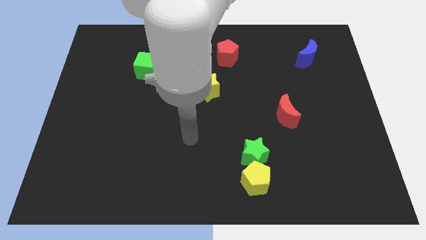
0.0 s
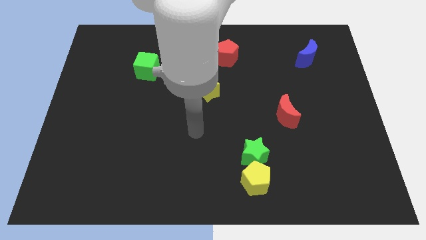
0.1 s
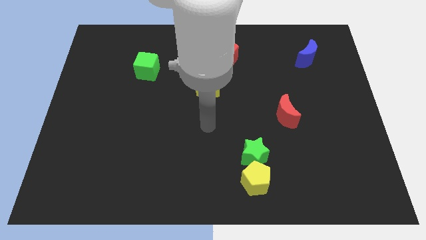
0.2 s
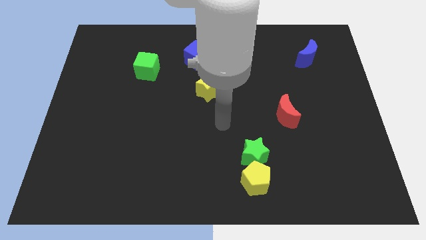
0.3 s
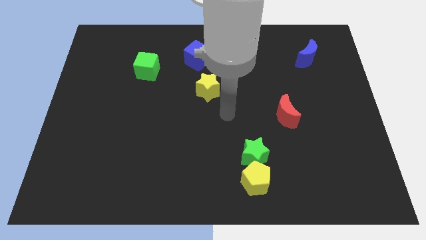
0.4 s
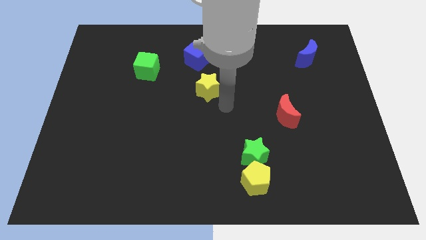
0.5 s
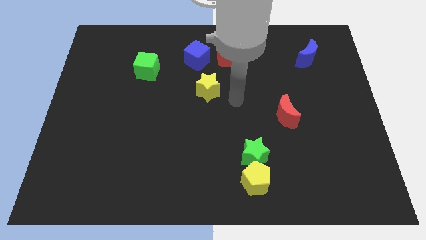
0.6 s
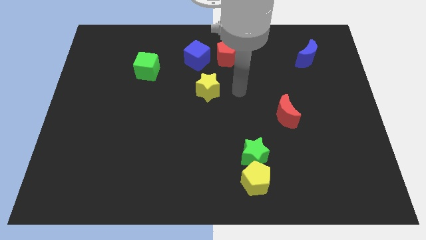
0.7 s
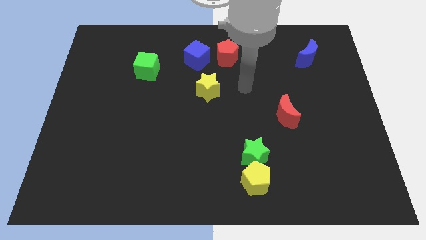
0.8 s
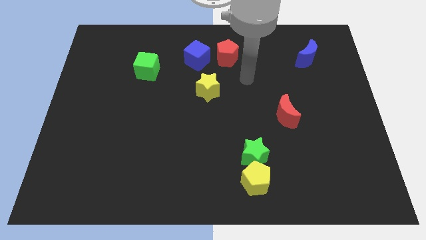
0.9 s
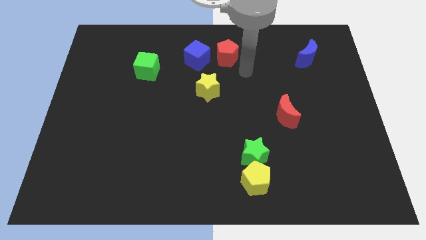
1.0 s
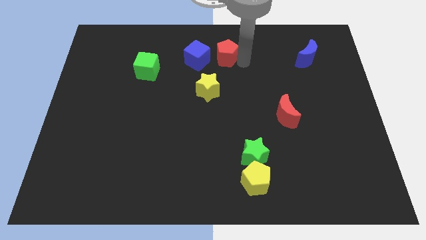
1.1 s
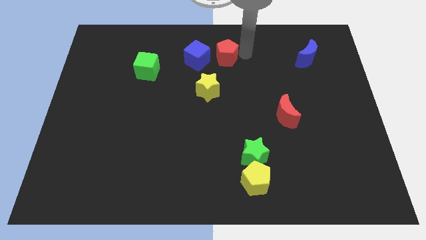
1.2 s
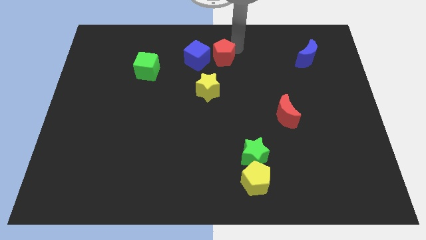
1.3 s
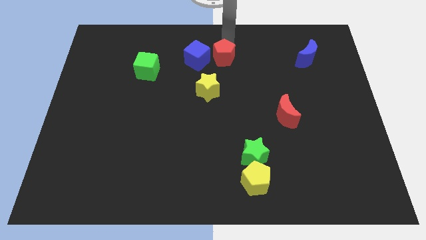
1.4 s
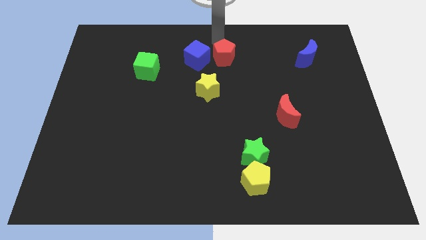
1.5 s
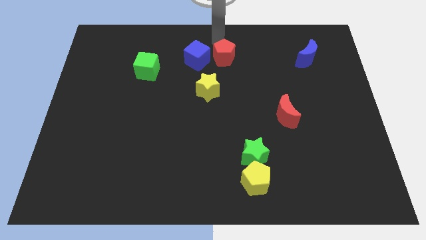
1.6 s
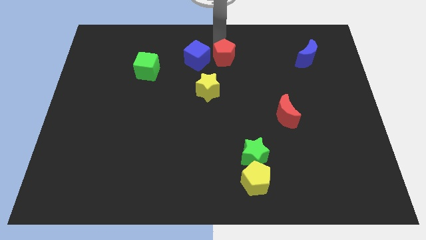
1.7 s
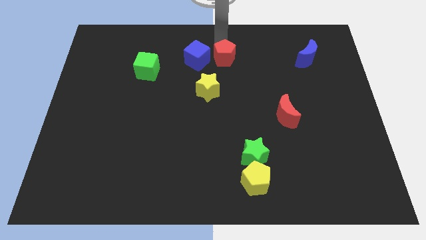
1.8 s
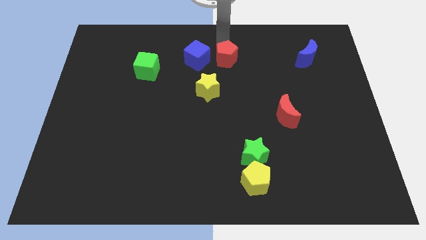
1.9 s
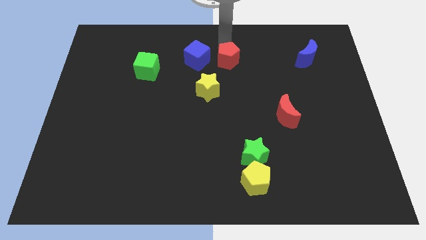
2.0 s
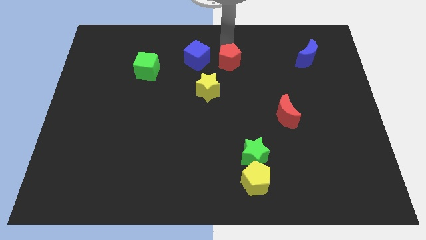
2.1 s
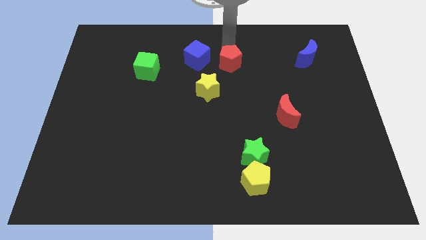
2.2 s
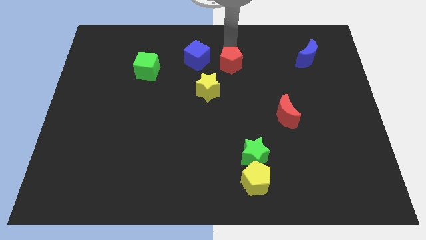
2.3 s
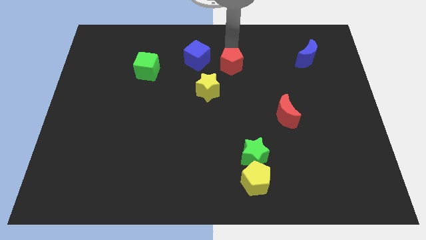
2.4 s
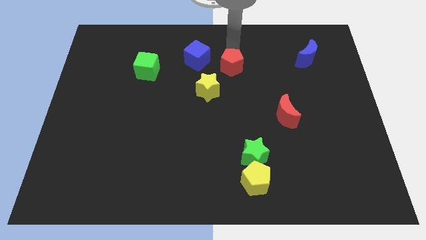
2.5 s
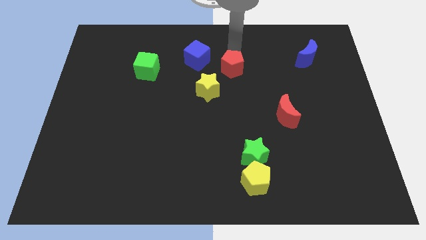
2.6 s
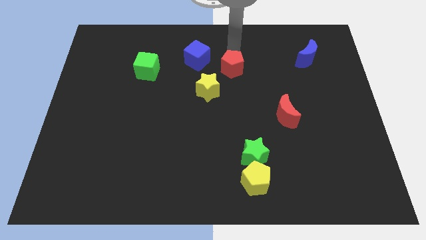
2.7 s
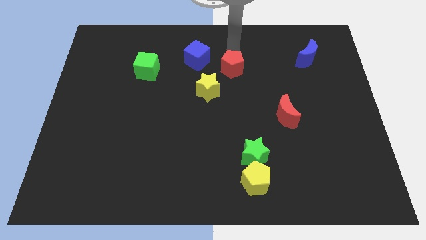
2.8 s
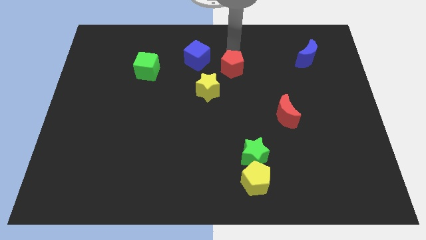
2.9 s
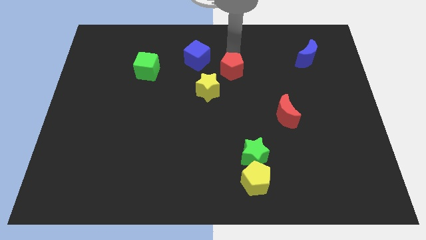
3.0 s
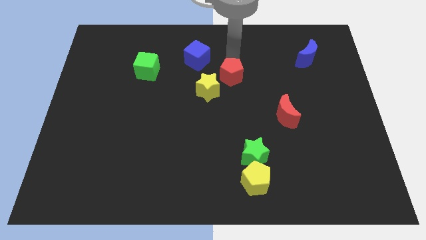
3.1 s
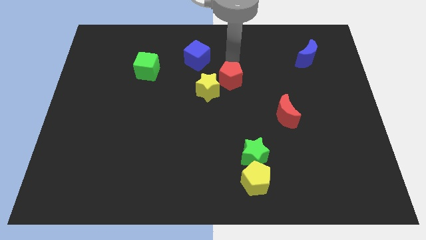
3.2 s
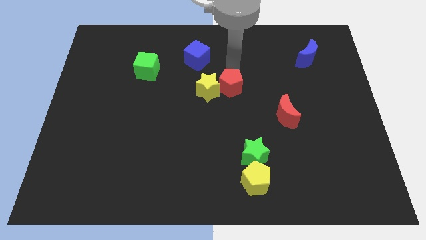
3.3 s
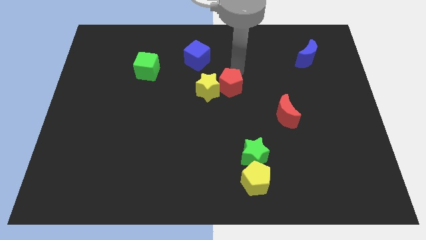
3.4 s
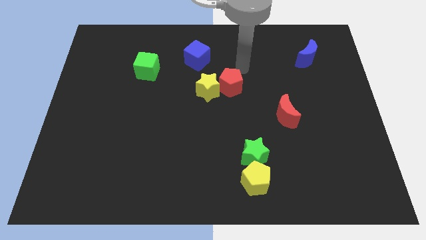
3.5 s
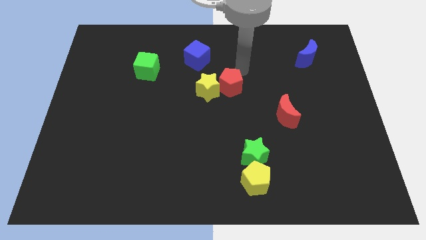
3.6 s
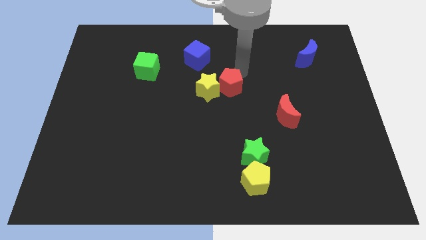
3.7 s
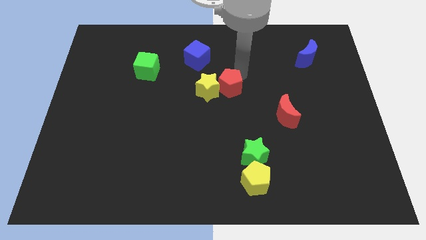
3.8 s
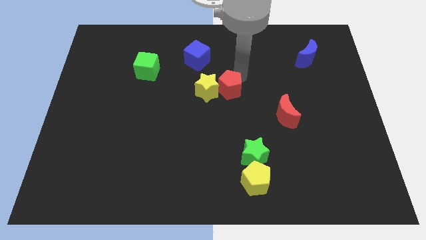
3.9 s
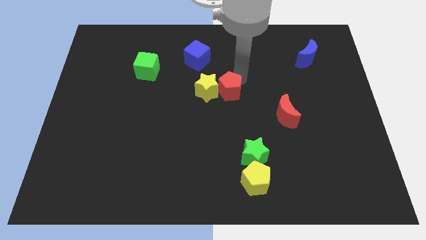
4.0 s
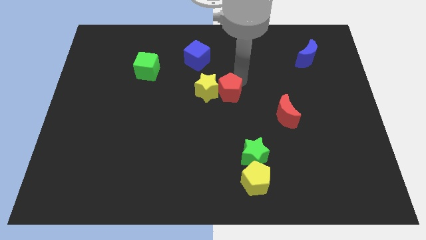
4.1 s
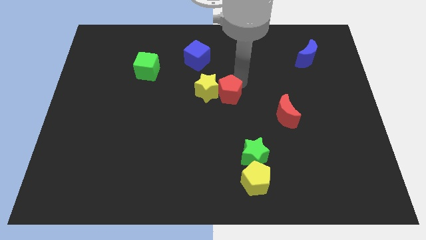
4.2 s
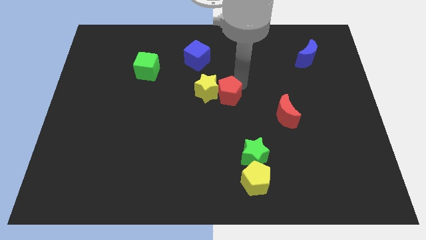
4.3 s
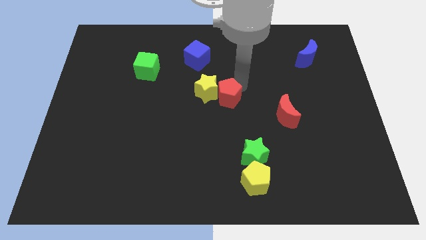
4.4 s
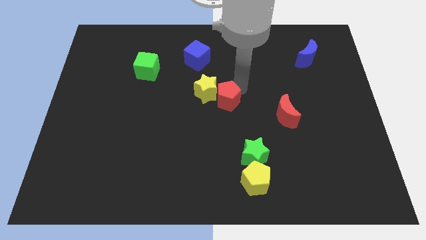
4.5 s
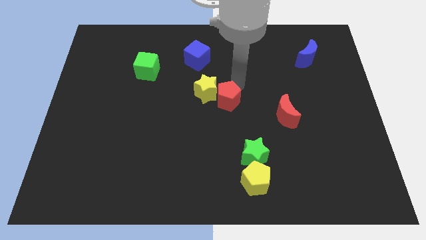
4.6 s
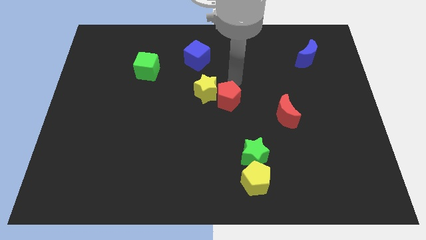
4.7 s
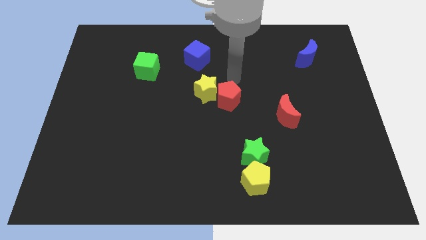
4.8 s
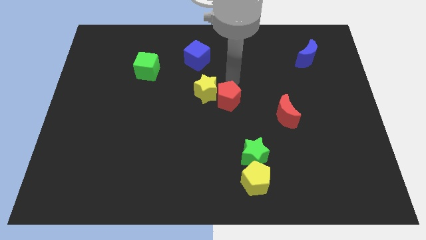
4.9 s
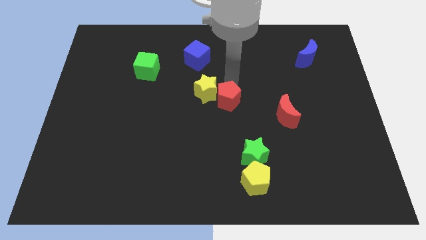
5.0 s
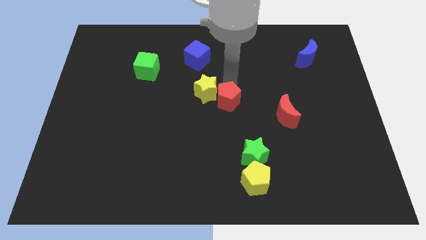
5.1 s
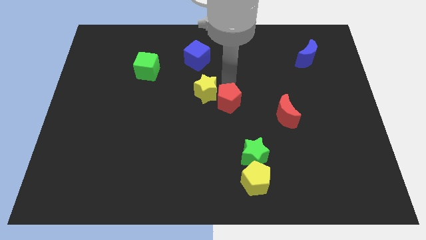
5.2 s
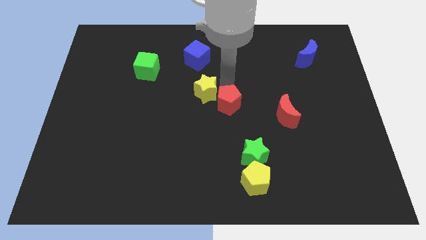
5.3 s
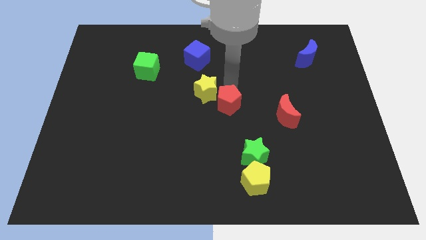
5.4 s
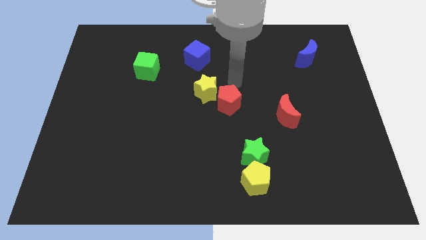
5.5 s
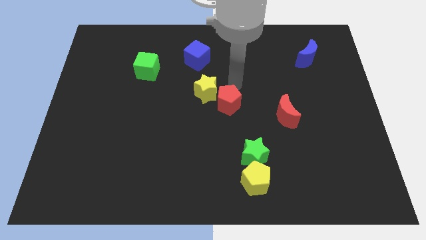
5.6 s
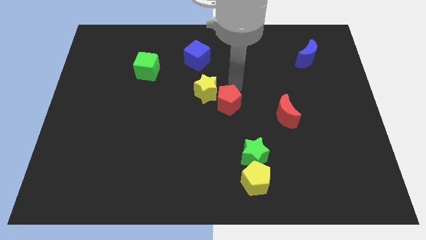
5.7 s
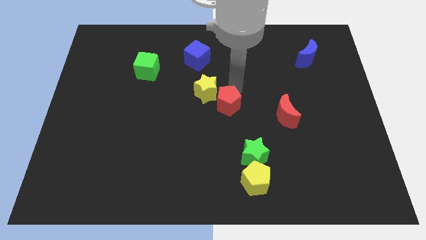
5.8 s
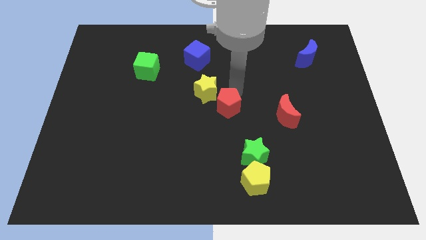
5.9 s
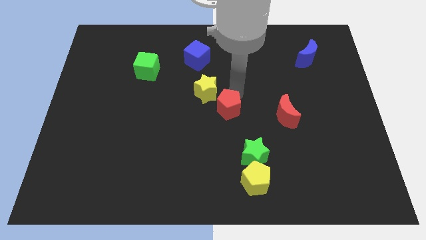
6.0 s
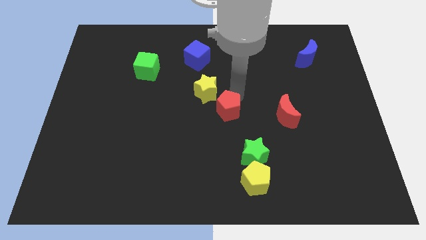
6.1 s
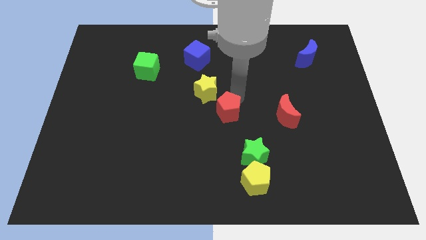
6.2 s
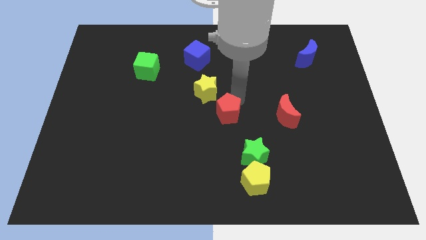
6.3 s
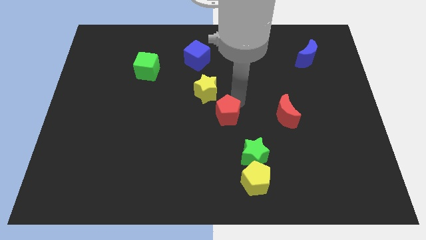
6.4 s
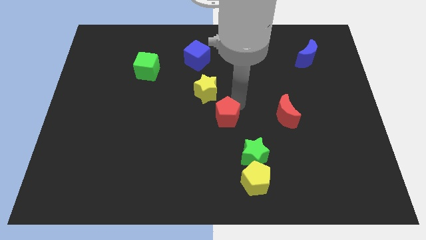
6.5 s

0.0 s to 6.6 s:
slide the red pentagon down

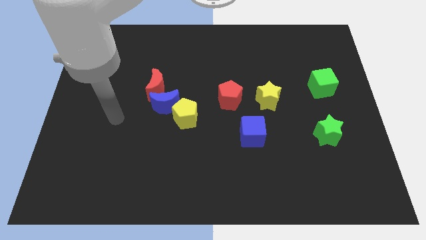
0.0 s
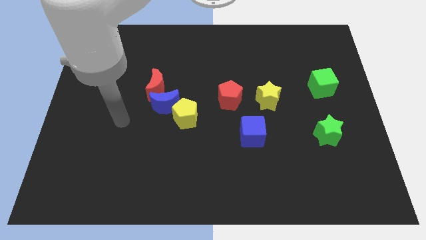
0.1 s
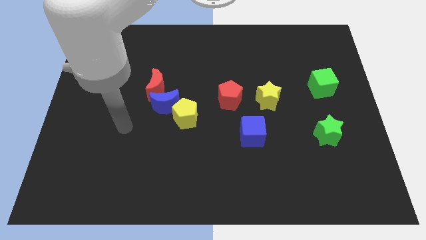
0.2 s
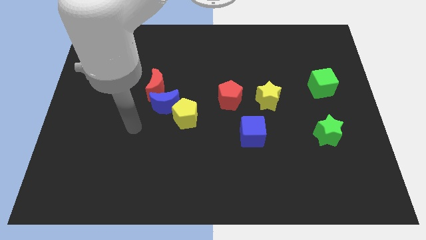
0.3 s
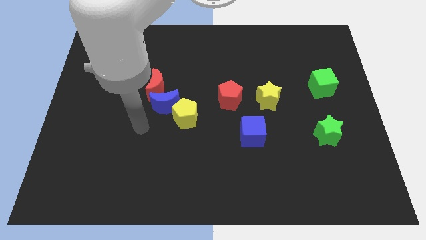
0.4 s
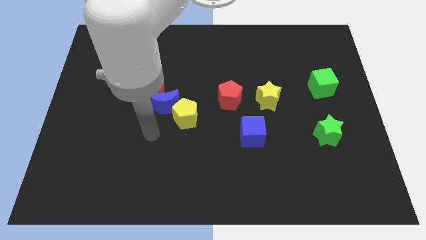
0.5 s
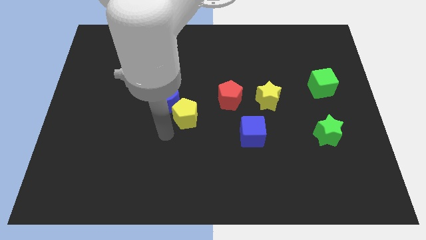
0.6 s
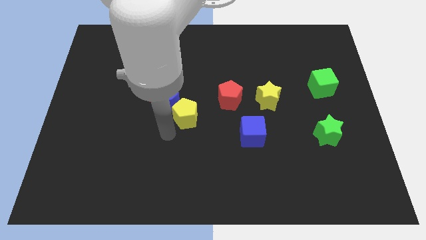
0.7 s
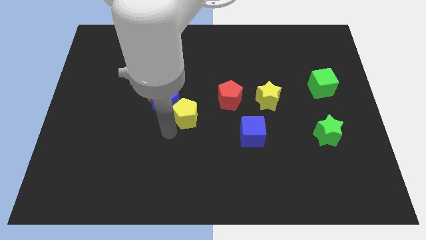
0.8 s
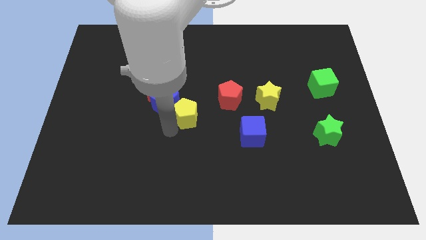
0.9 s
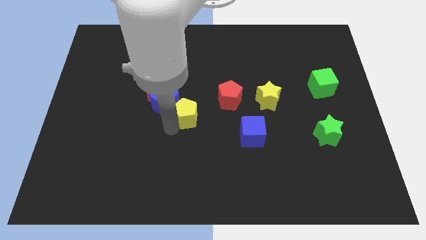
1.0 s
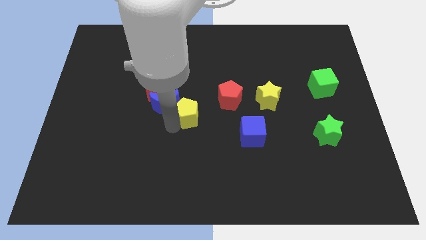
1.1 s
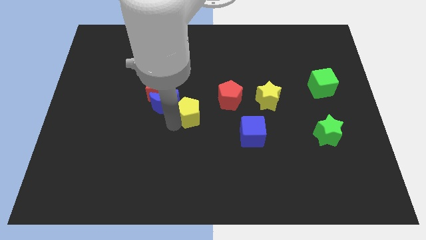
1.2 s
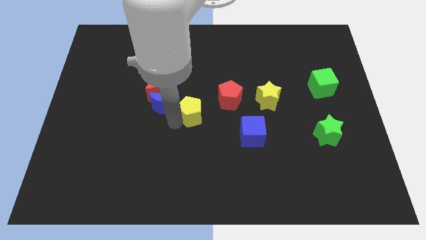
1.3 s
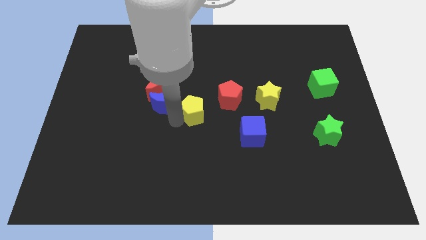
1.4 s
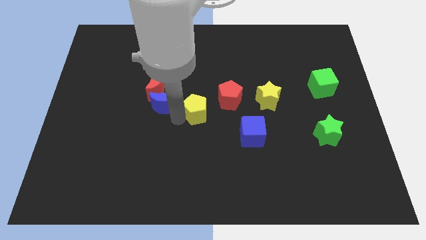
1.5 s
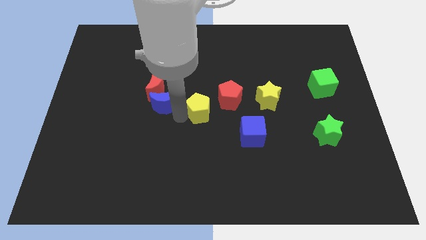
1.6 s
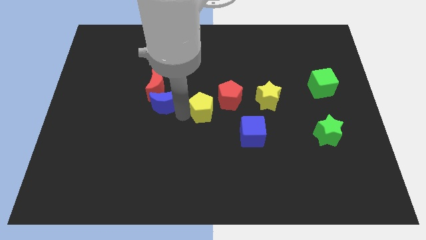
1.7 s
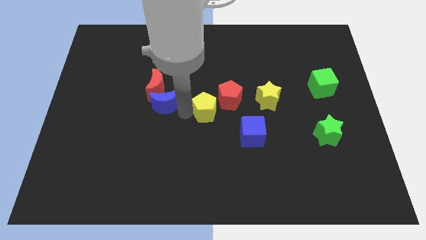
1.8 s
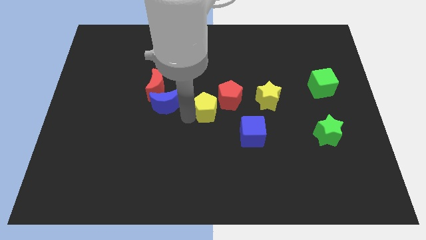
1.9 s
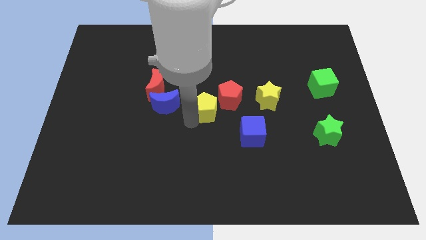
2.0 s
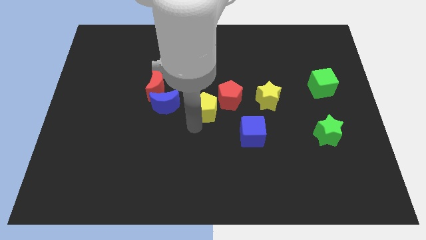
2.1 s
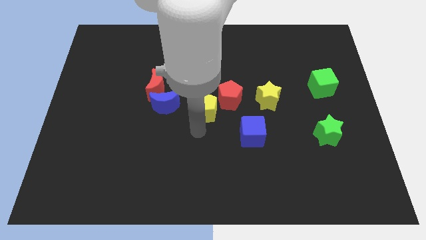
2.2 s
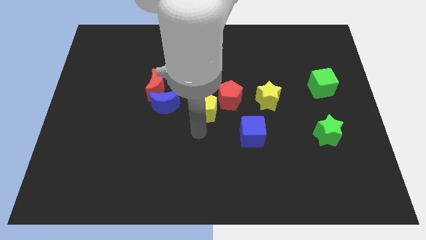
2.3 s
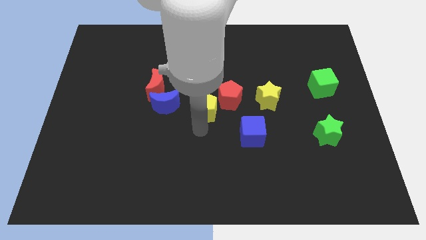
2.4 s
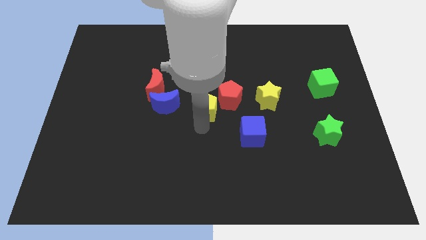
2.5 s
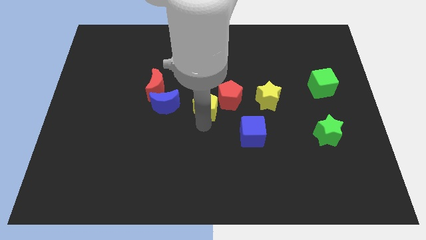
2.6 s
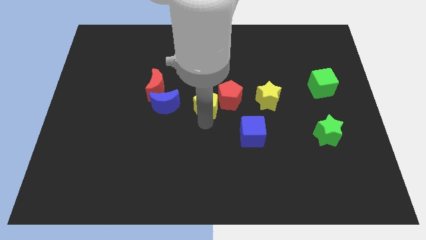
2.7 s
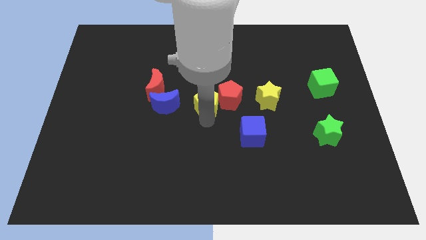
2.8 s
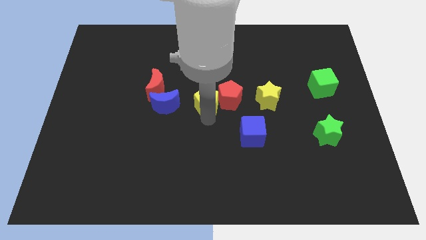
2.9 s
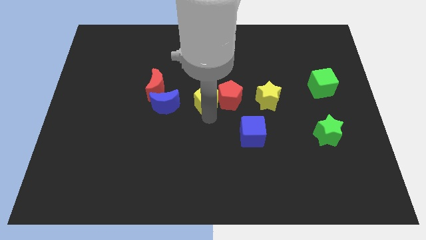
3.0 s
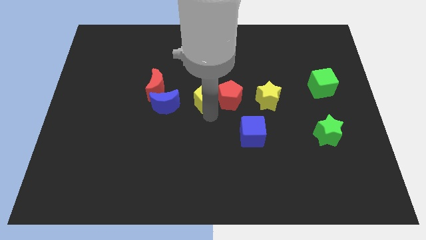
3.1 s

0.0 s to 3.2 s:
slide the yellow pentagon diagonally upwards and right a little
